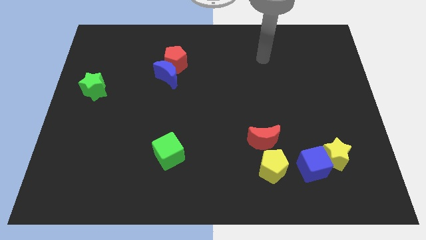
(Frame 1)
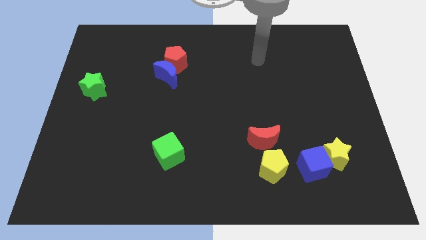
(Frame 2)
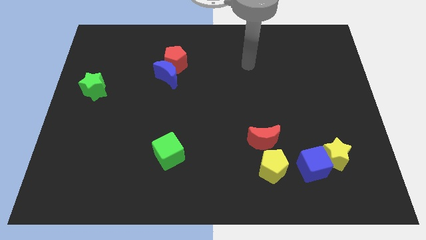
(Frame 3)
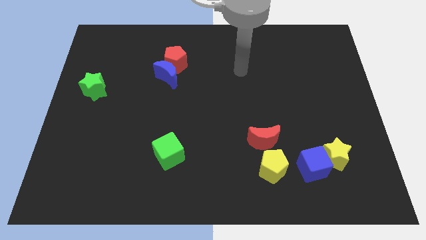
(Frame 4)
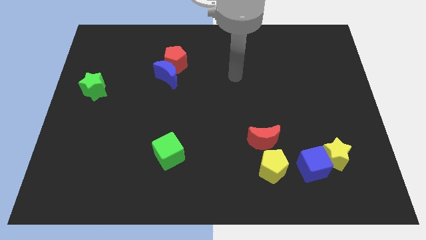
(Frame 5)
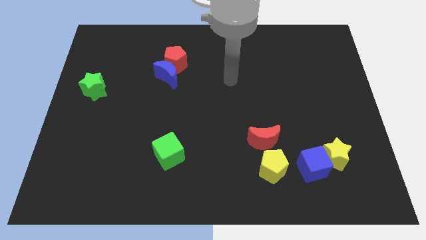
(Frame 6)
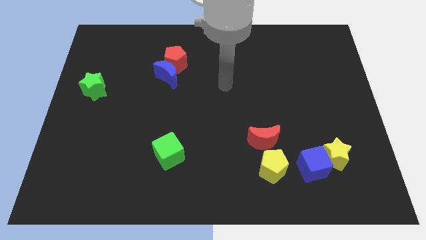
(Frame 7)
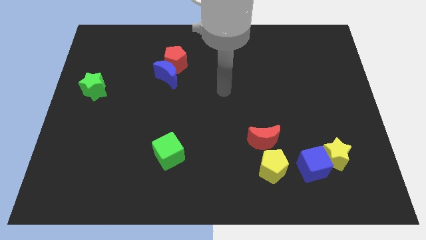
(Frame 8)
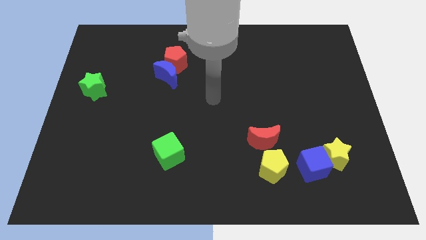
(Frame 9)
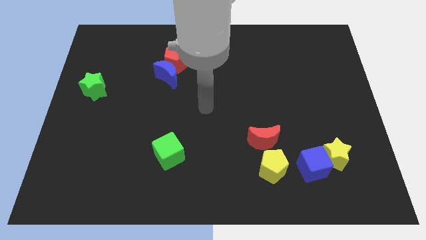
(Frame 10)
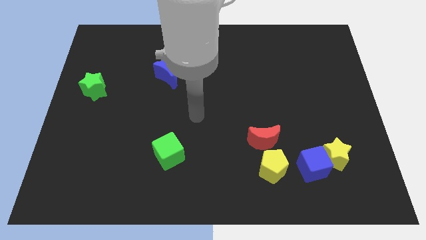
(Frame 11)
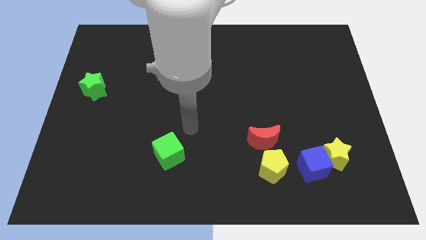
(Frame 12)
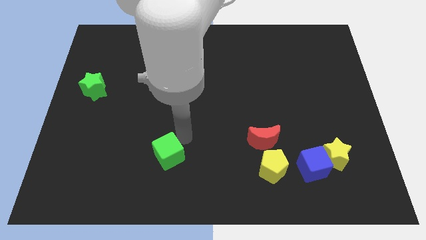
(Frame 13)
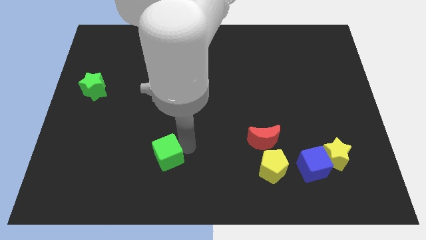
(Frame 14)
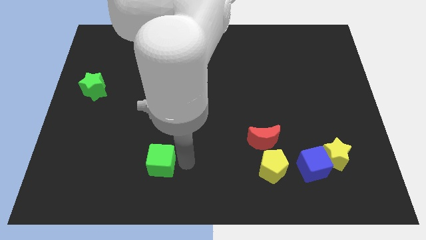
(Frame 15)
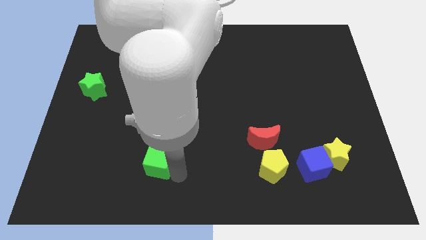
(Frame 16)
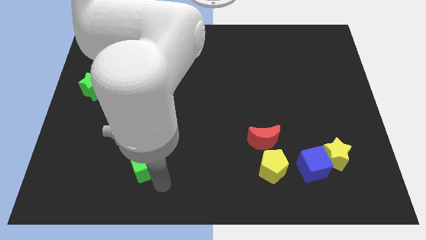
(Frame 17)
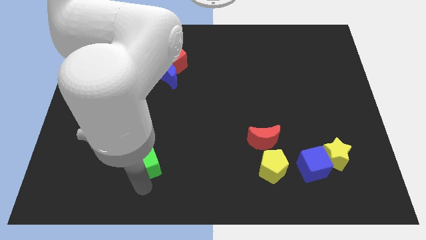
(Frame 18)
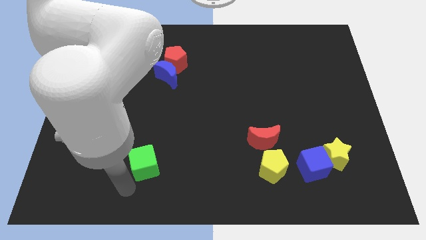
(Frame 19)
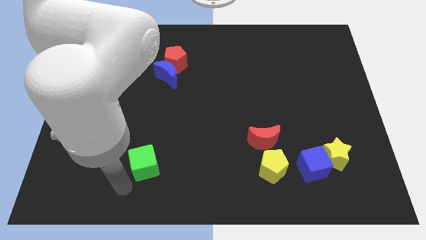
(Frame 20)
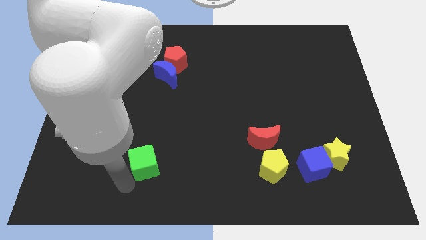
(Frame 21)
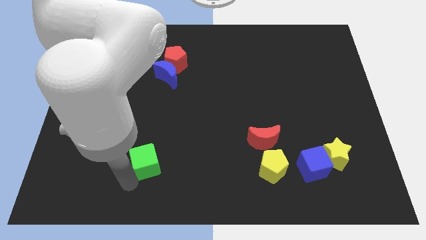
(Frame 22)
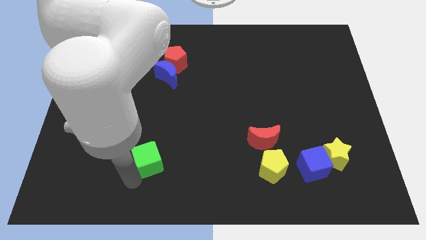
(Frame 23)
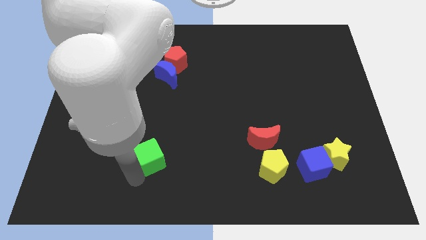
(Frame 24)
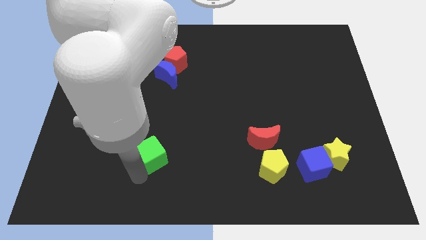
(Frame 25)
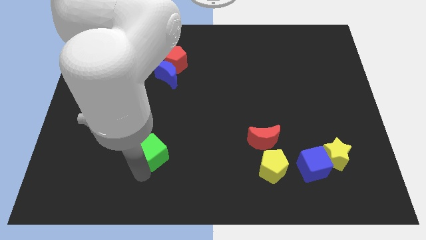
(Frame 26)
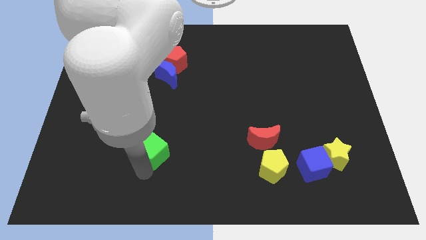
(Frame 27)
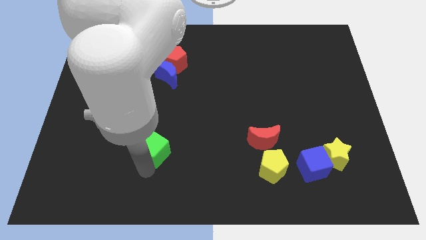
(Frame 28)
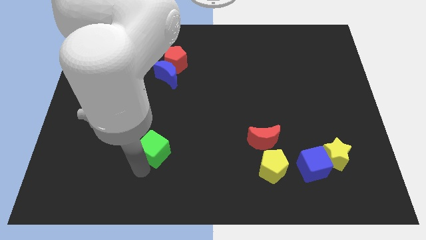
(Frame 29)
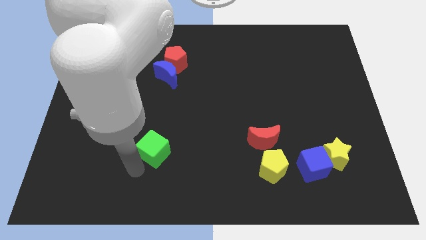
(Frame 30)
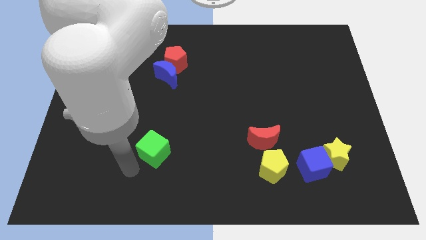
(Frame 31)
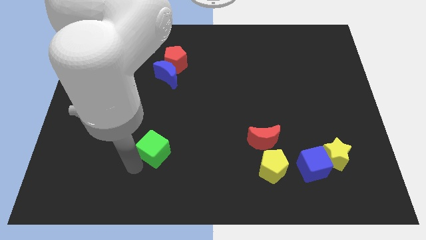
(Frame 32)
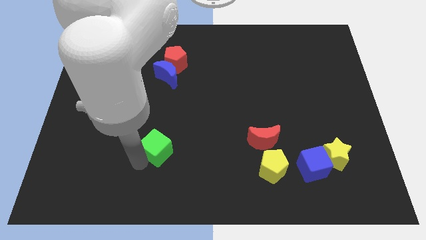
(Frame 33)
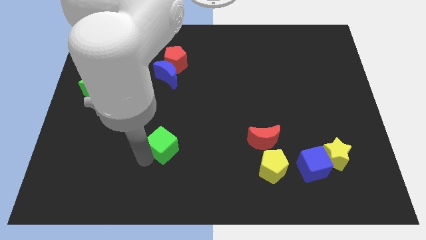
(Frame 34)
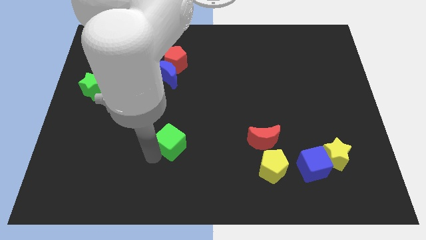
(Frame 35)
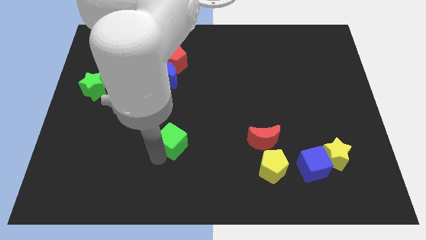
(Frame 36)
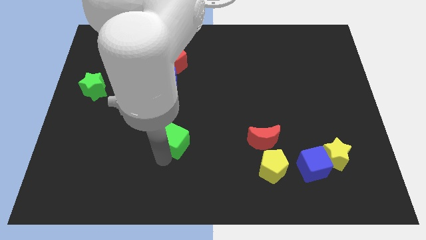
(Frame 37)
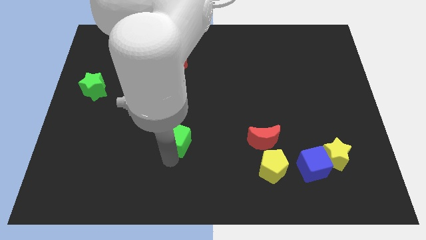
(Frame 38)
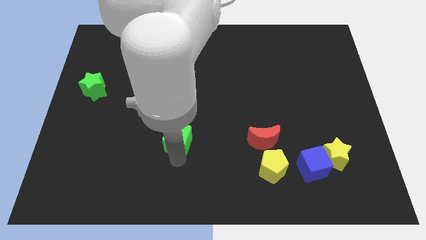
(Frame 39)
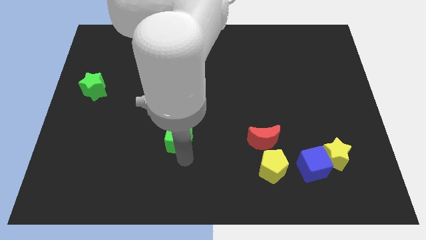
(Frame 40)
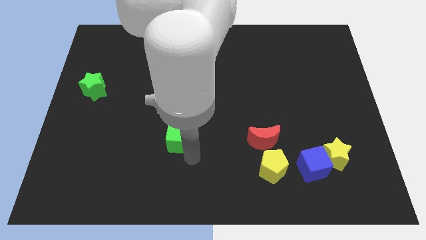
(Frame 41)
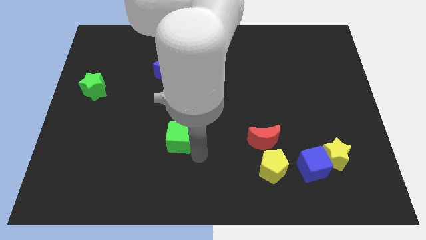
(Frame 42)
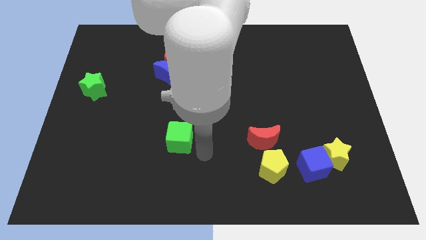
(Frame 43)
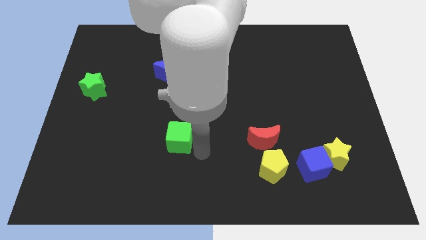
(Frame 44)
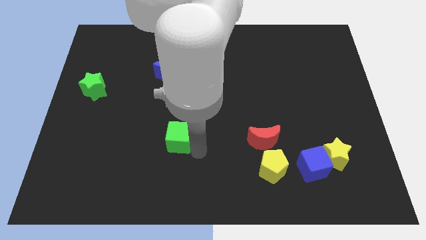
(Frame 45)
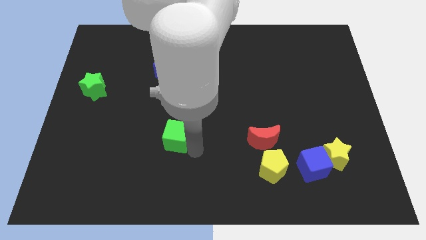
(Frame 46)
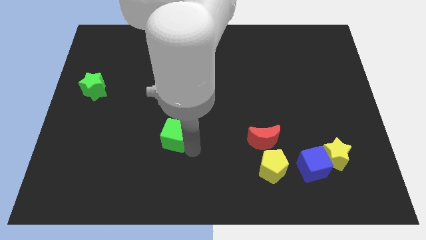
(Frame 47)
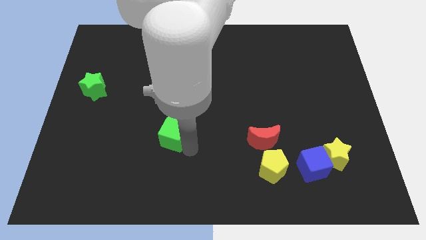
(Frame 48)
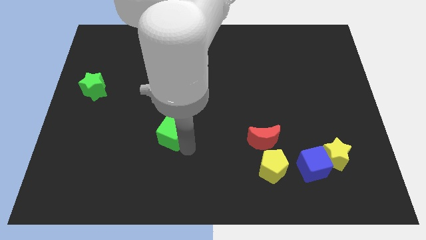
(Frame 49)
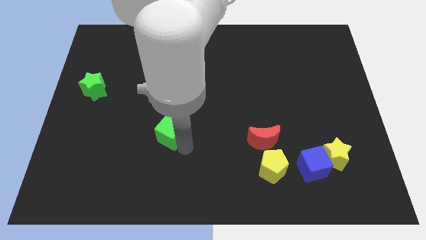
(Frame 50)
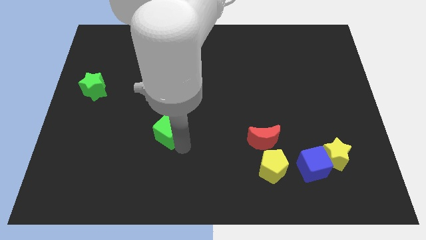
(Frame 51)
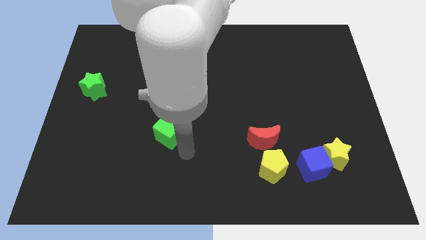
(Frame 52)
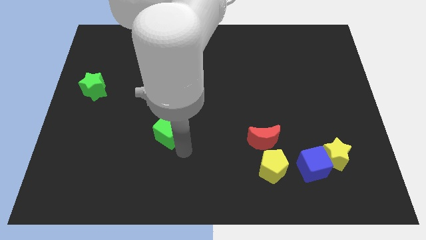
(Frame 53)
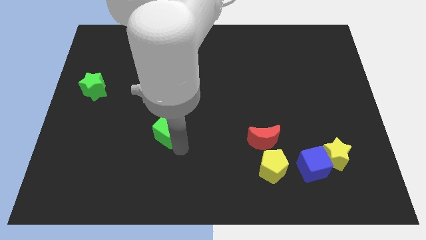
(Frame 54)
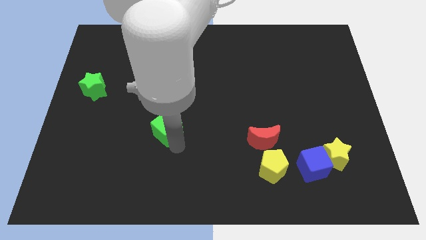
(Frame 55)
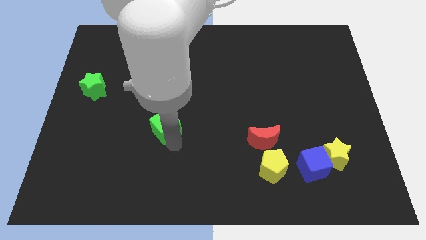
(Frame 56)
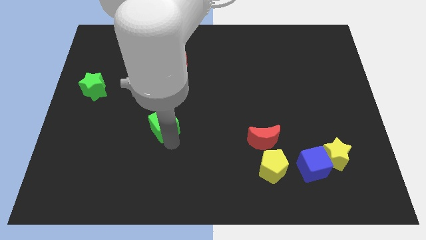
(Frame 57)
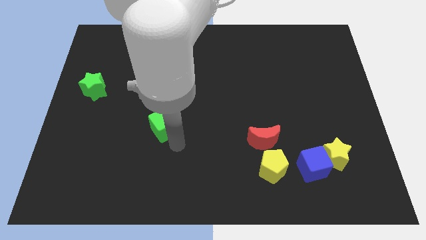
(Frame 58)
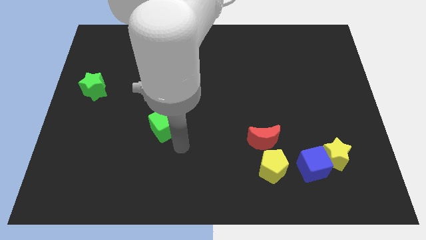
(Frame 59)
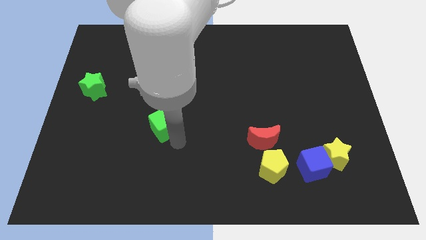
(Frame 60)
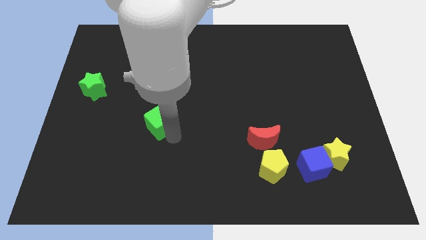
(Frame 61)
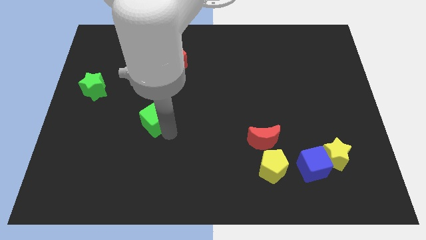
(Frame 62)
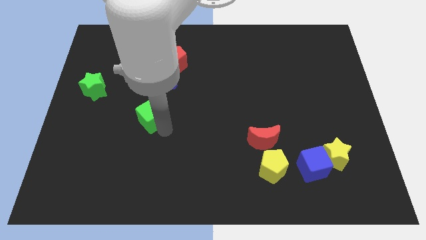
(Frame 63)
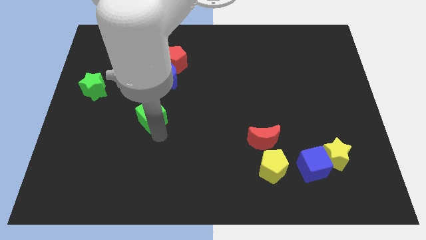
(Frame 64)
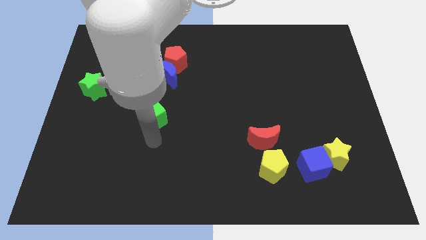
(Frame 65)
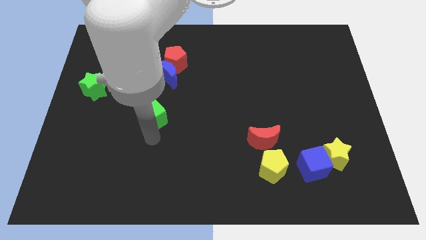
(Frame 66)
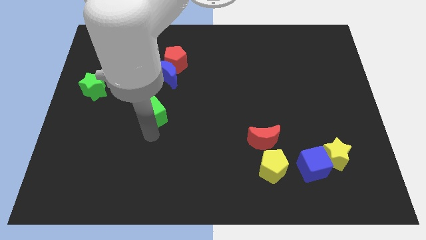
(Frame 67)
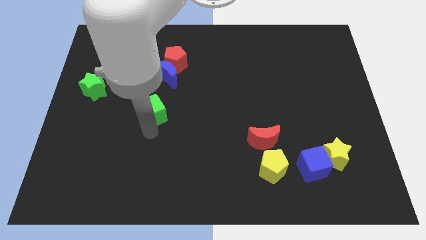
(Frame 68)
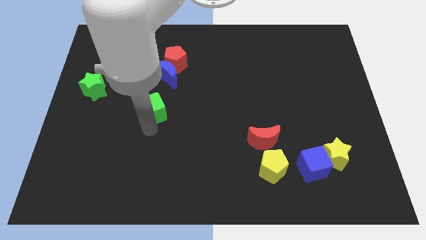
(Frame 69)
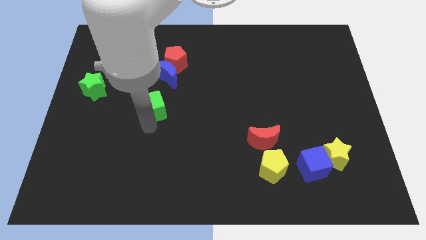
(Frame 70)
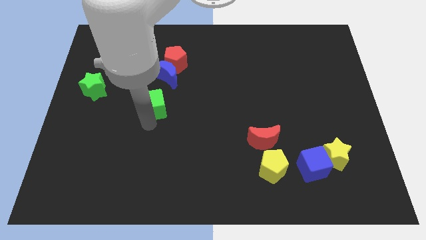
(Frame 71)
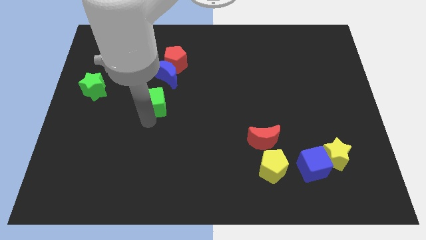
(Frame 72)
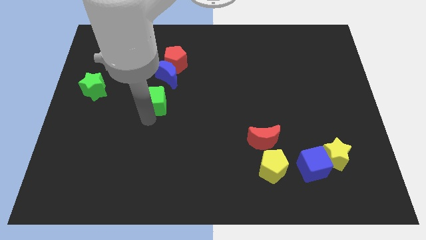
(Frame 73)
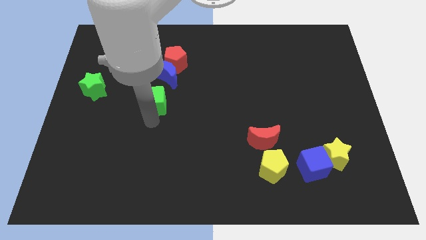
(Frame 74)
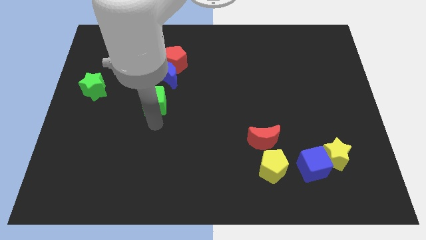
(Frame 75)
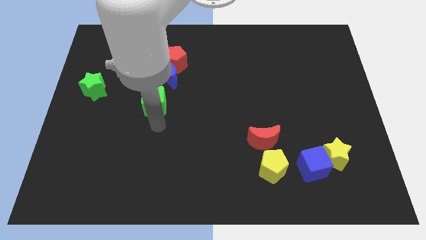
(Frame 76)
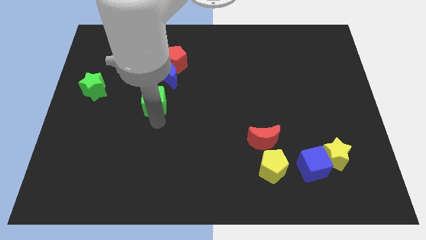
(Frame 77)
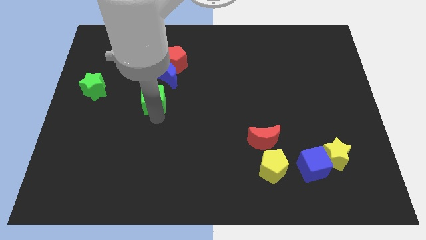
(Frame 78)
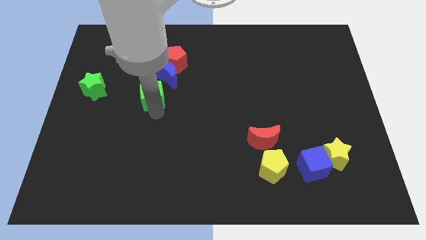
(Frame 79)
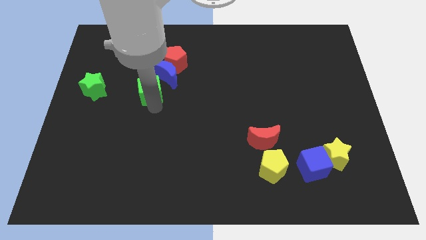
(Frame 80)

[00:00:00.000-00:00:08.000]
move the green cube to the bottom left of the red pentagon
